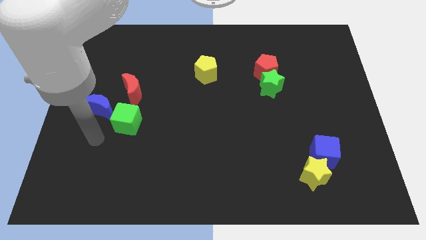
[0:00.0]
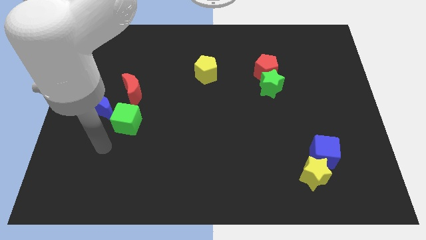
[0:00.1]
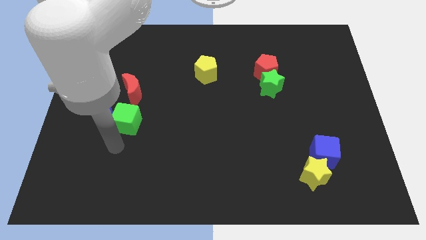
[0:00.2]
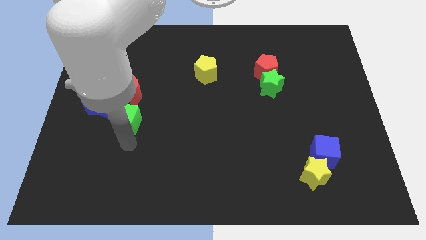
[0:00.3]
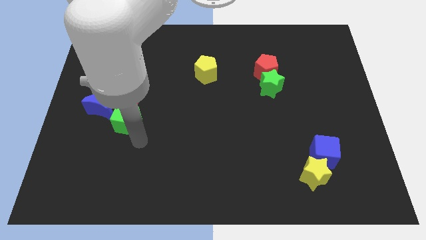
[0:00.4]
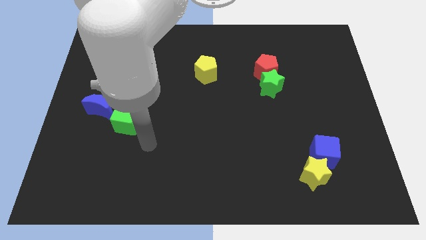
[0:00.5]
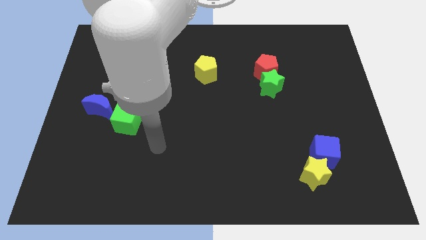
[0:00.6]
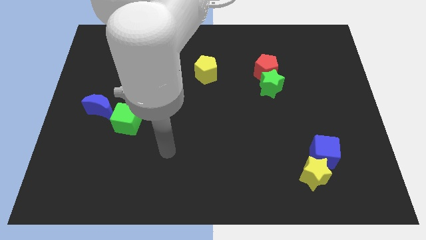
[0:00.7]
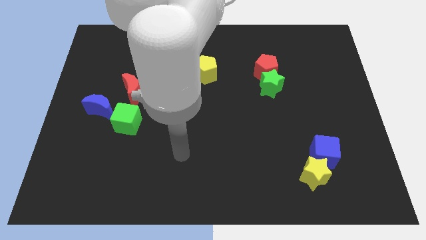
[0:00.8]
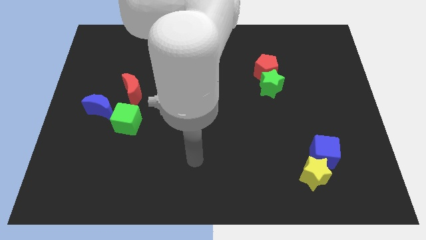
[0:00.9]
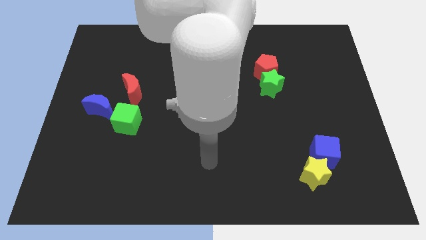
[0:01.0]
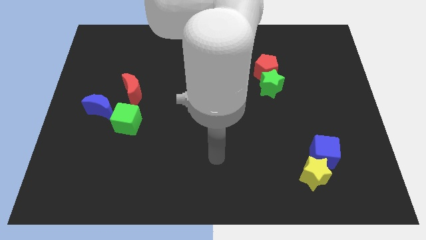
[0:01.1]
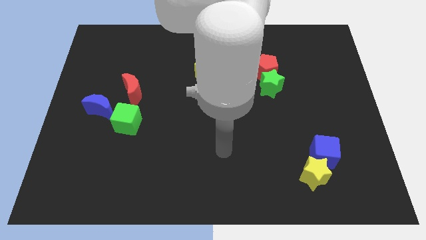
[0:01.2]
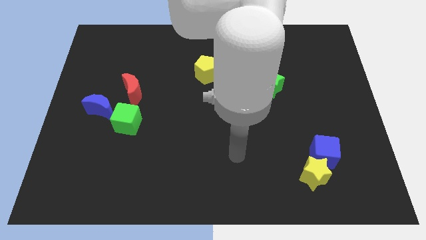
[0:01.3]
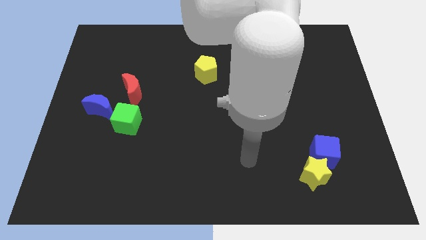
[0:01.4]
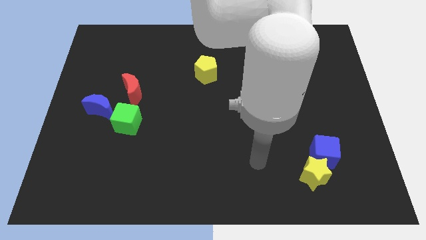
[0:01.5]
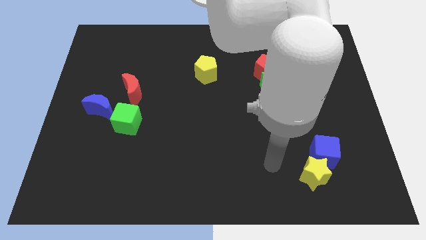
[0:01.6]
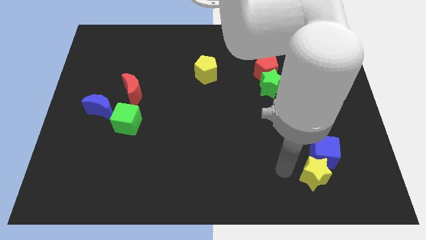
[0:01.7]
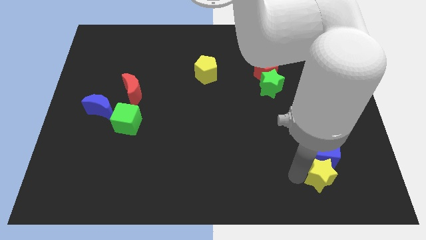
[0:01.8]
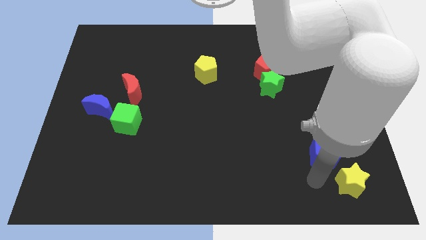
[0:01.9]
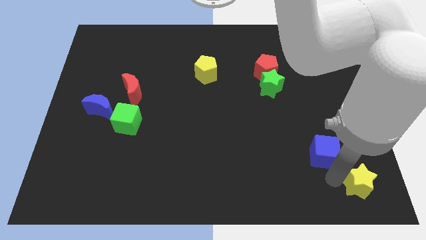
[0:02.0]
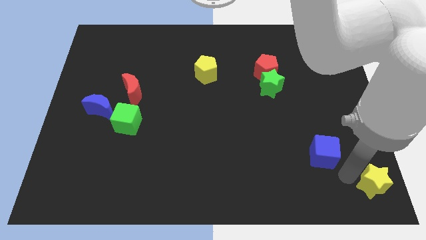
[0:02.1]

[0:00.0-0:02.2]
pull the blue cube apart from the yellow star

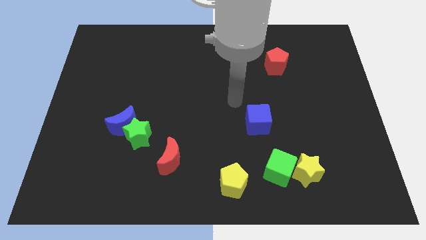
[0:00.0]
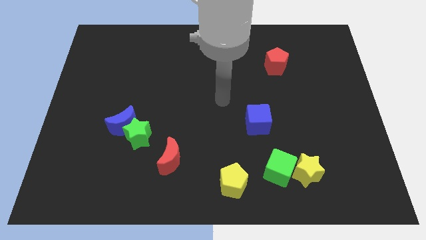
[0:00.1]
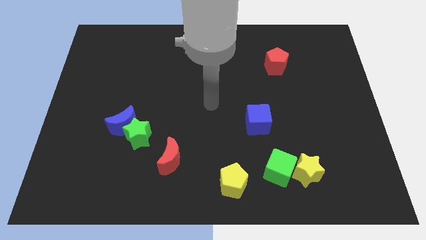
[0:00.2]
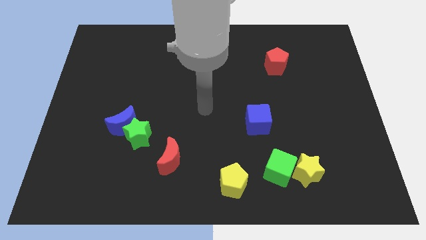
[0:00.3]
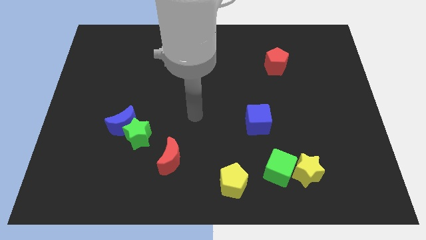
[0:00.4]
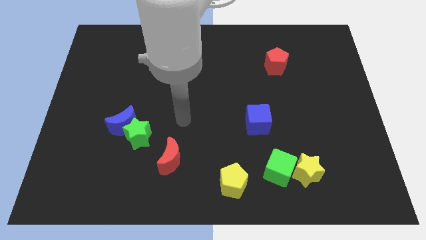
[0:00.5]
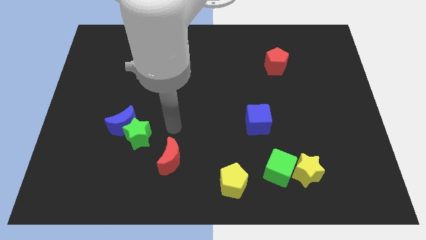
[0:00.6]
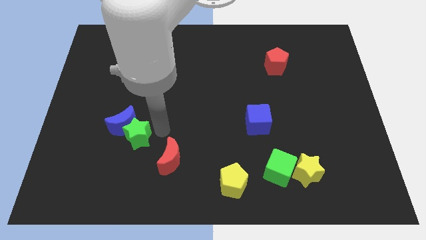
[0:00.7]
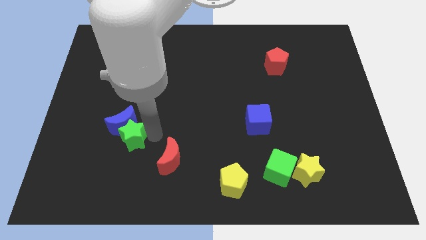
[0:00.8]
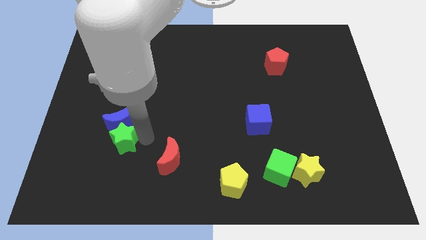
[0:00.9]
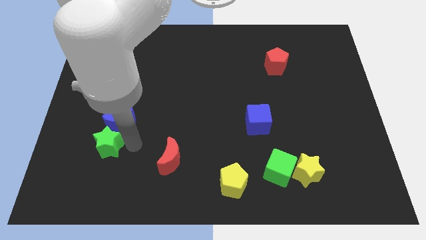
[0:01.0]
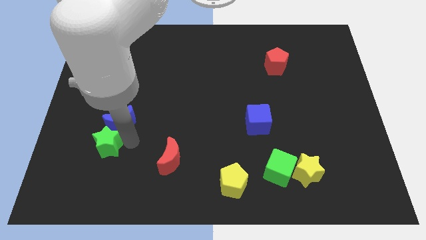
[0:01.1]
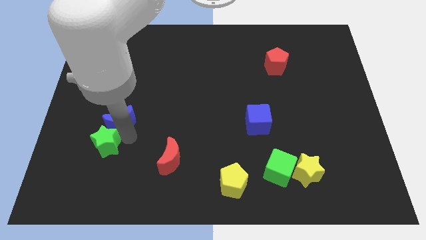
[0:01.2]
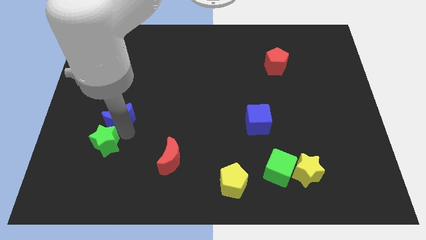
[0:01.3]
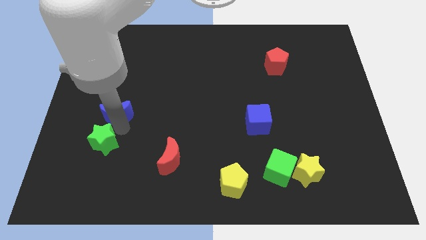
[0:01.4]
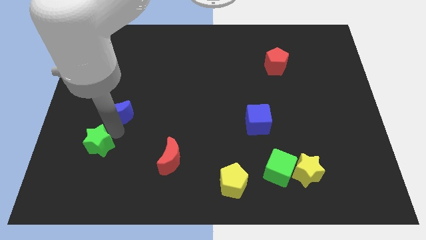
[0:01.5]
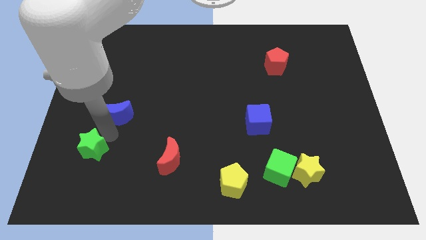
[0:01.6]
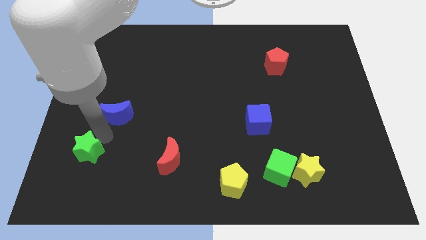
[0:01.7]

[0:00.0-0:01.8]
separate the blue moon from the green star

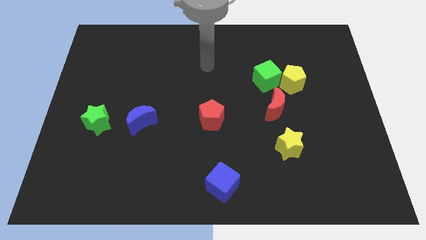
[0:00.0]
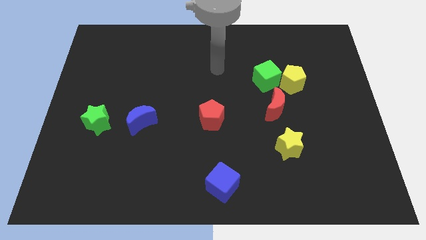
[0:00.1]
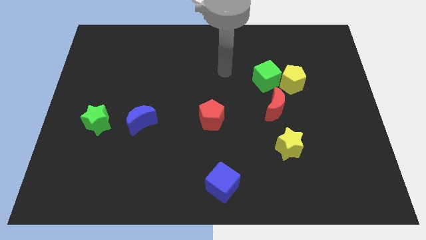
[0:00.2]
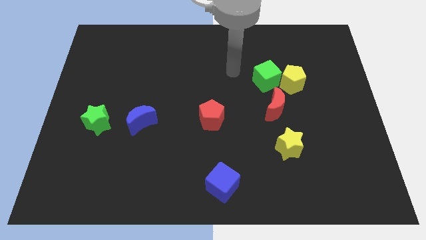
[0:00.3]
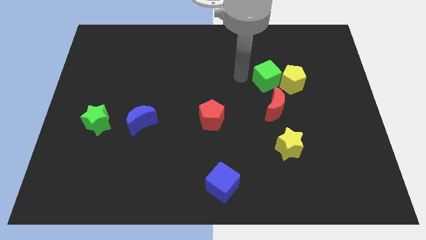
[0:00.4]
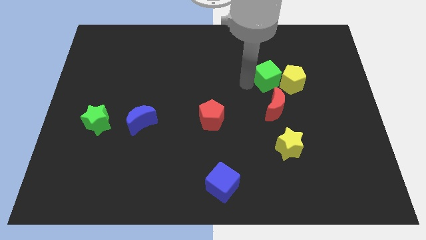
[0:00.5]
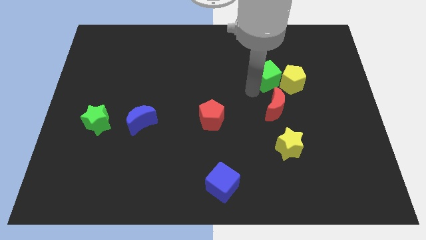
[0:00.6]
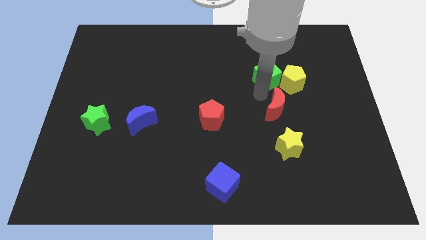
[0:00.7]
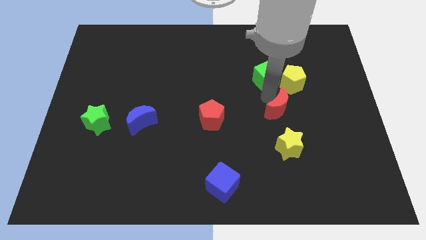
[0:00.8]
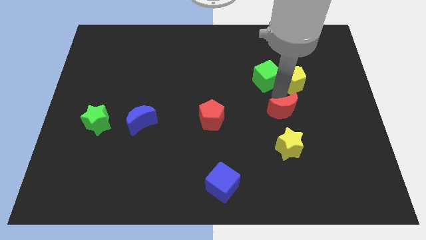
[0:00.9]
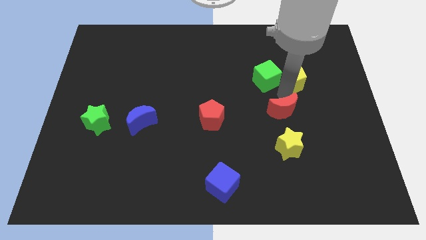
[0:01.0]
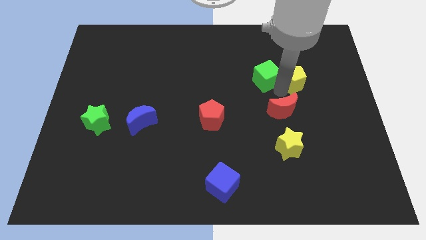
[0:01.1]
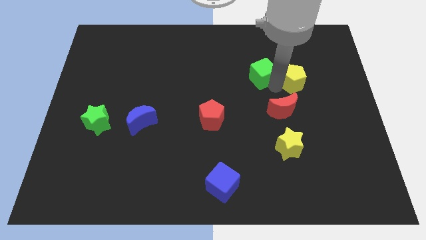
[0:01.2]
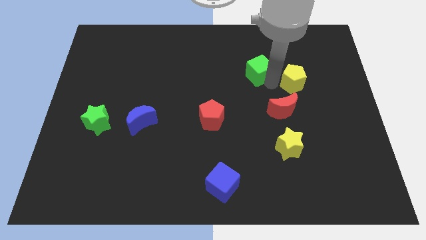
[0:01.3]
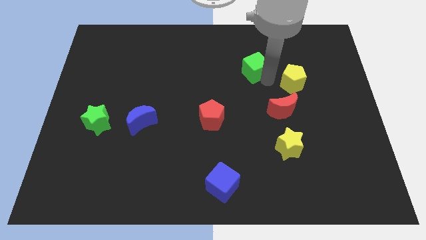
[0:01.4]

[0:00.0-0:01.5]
separate the green cube from the yellow pentagon and red moon

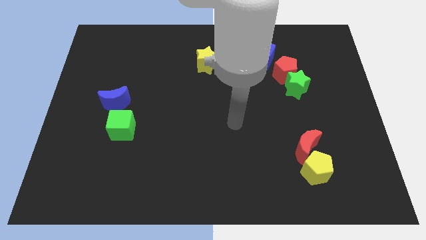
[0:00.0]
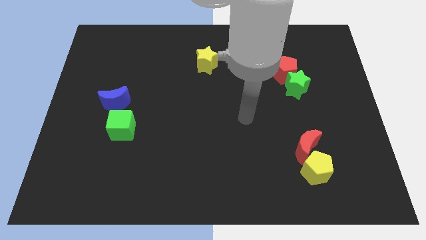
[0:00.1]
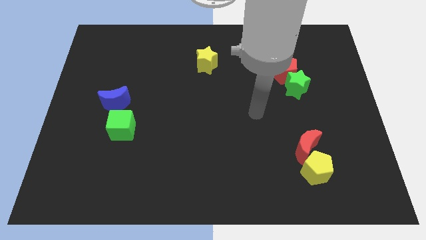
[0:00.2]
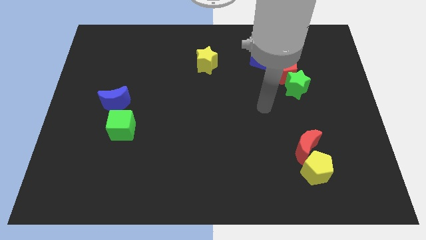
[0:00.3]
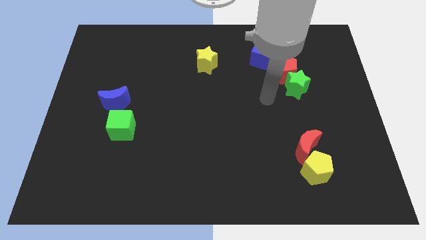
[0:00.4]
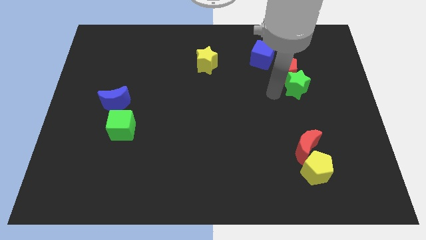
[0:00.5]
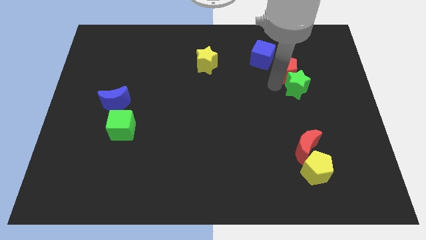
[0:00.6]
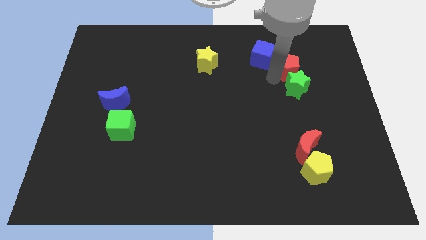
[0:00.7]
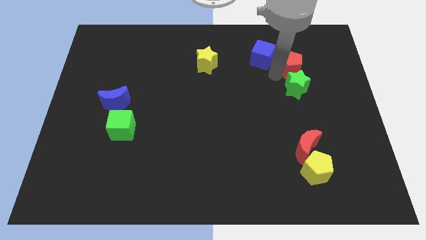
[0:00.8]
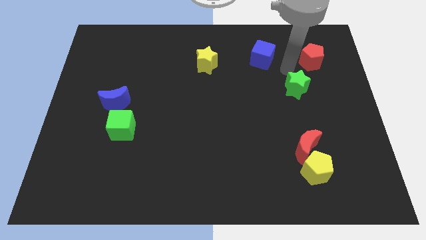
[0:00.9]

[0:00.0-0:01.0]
pull the green star apart from the red pentagon

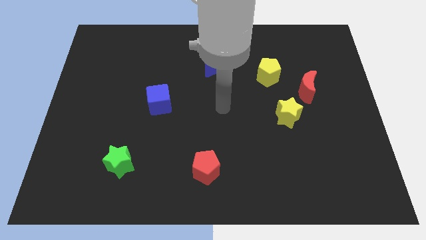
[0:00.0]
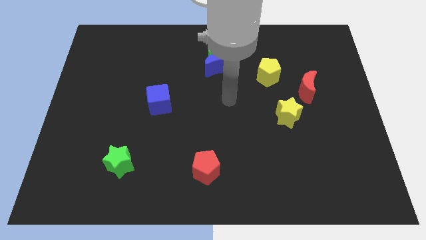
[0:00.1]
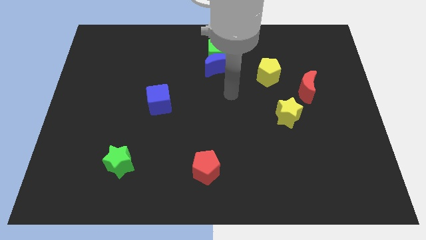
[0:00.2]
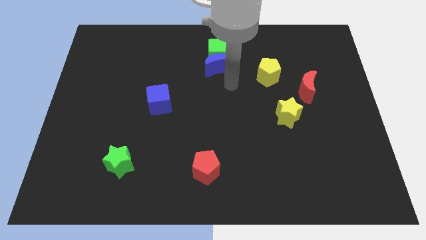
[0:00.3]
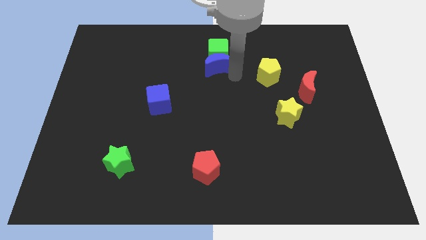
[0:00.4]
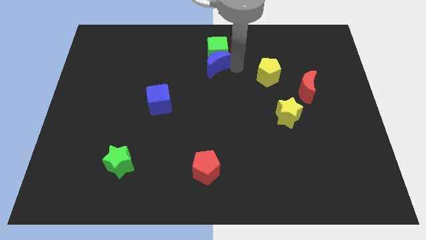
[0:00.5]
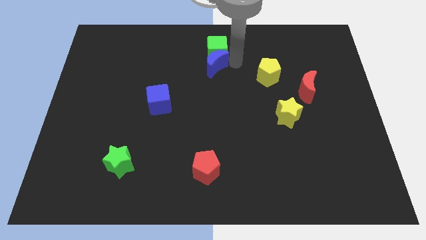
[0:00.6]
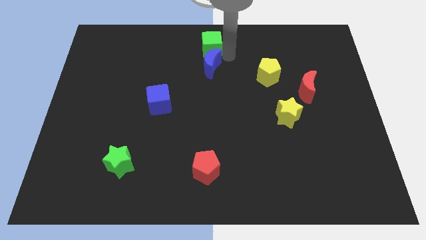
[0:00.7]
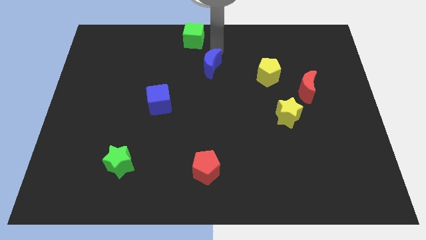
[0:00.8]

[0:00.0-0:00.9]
move the blue moon away from the green cube

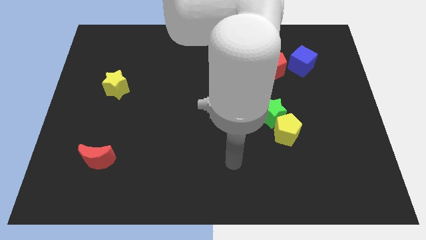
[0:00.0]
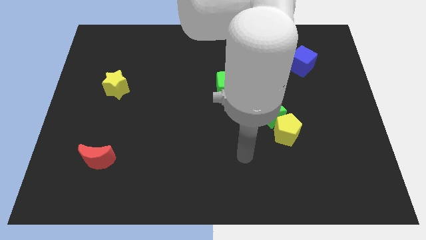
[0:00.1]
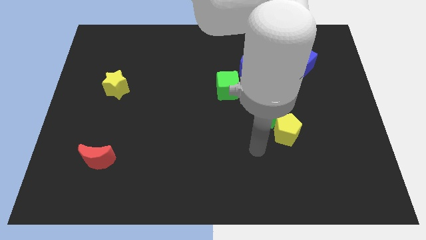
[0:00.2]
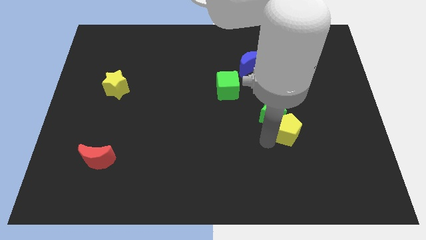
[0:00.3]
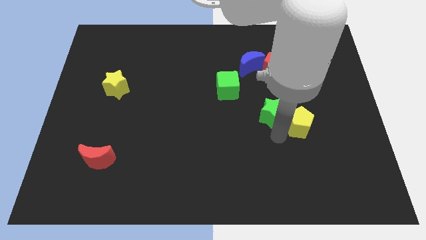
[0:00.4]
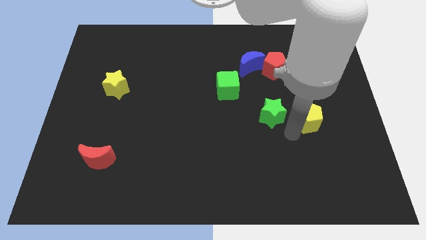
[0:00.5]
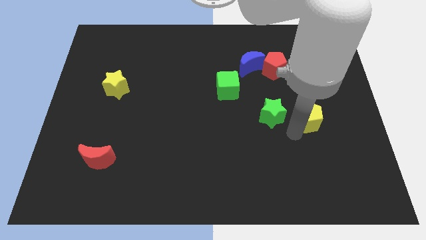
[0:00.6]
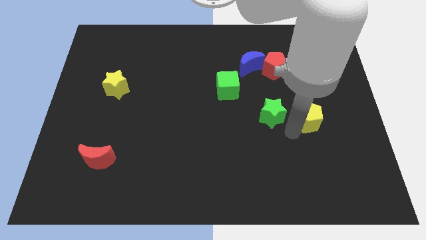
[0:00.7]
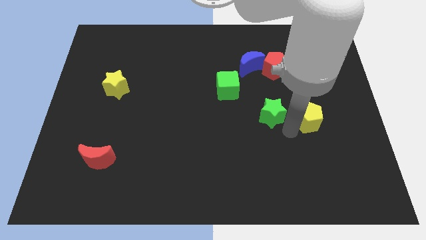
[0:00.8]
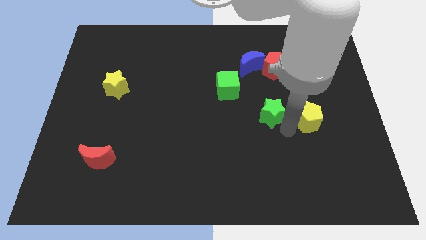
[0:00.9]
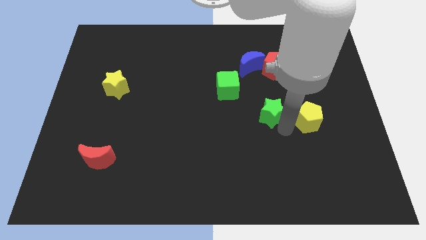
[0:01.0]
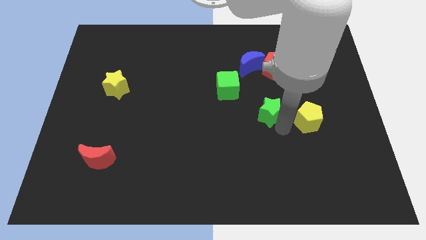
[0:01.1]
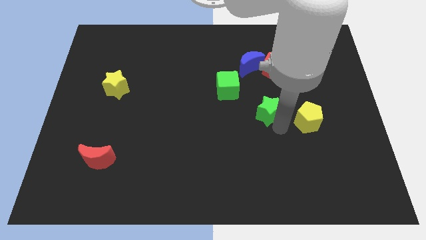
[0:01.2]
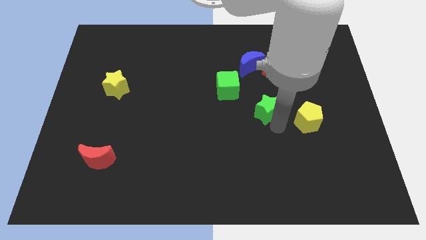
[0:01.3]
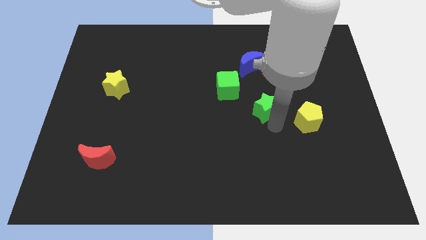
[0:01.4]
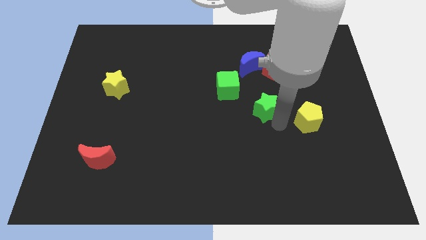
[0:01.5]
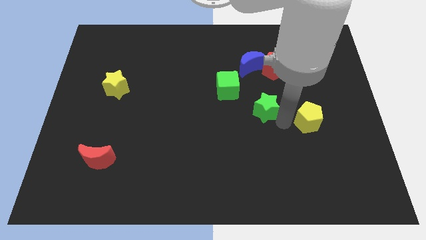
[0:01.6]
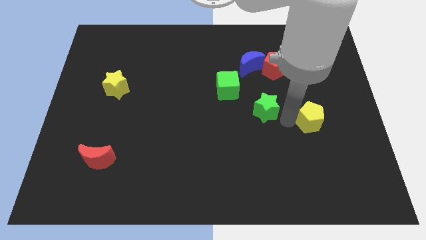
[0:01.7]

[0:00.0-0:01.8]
move the green star away from the yellow pentagon

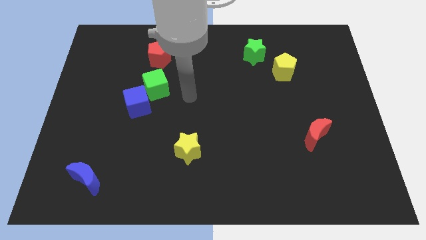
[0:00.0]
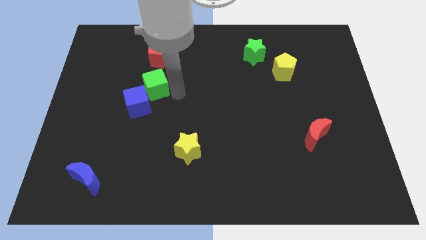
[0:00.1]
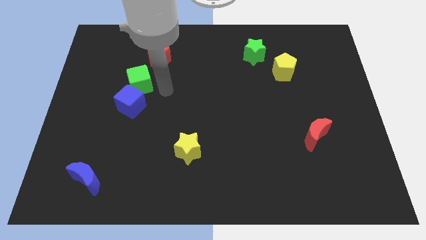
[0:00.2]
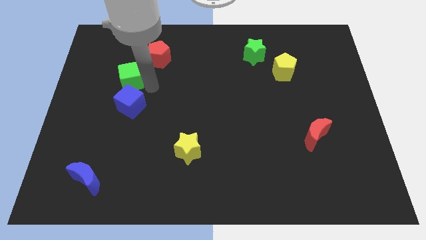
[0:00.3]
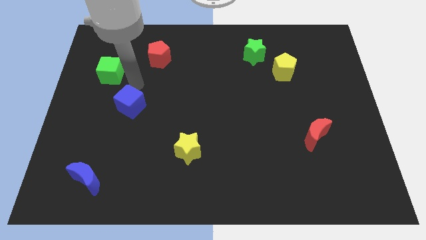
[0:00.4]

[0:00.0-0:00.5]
pull the blue cube apart from the green cube
